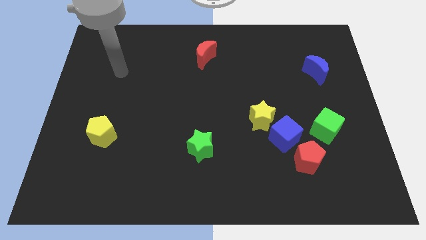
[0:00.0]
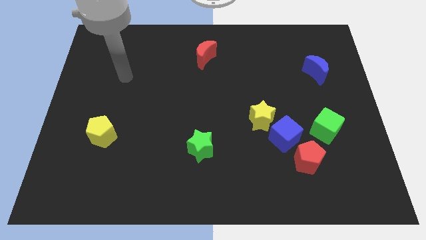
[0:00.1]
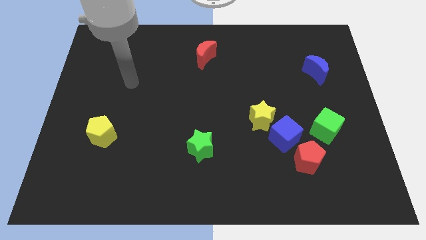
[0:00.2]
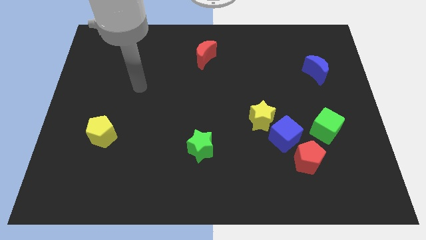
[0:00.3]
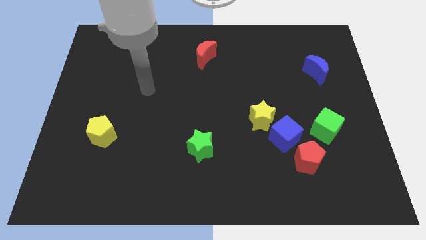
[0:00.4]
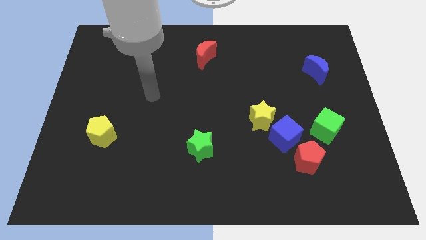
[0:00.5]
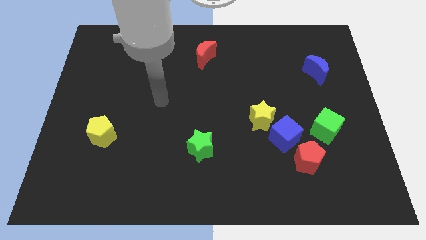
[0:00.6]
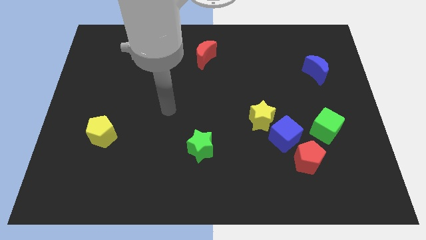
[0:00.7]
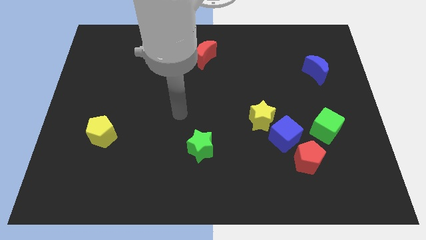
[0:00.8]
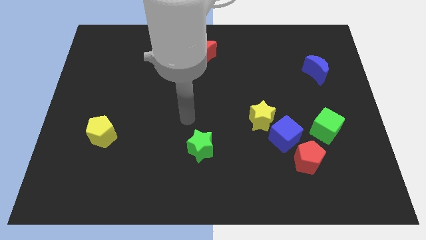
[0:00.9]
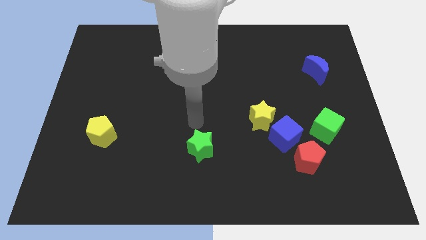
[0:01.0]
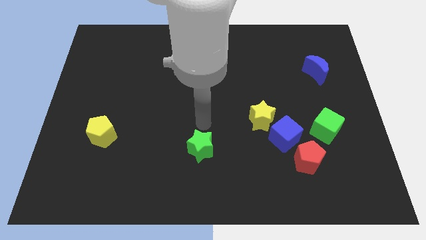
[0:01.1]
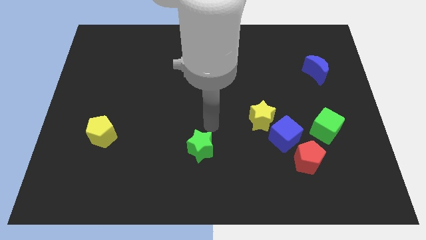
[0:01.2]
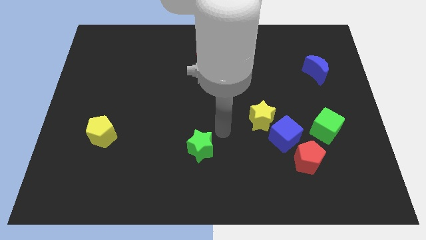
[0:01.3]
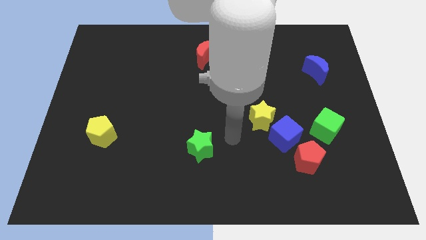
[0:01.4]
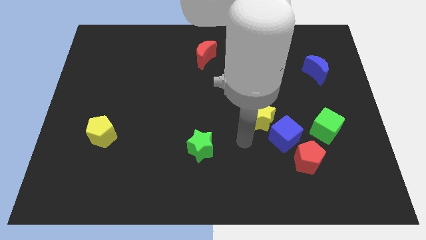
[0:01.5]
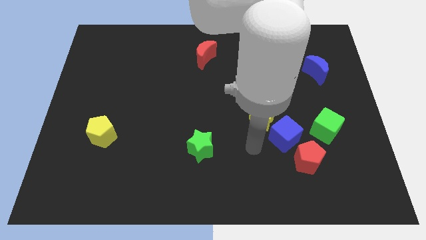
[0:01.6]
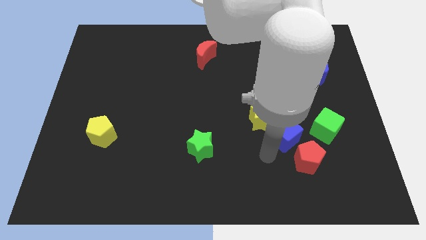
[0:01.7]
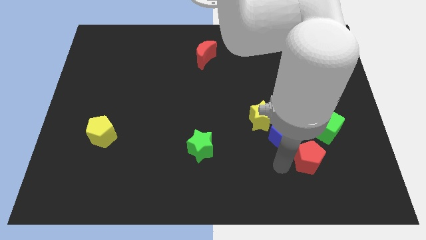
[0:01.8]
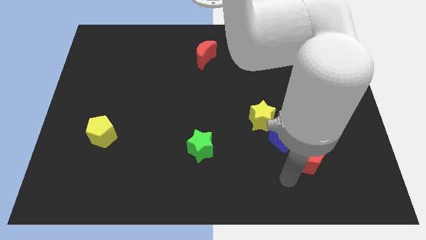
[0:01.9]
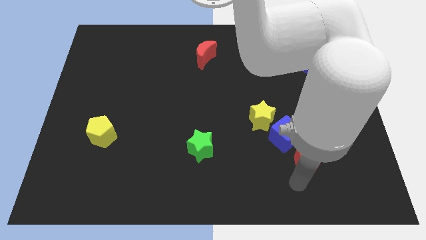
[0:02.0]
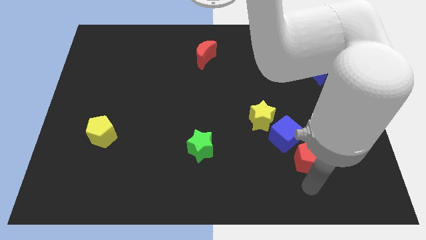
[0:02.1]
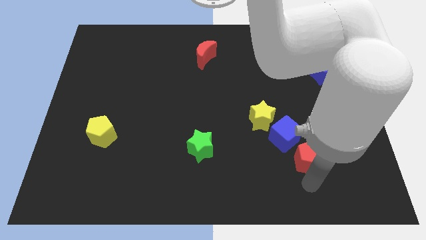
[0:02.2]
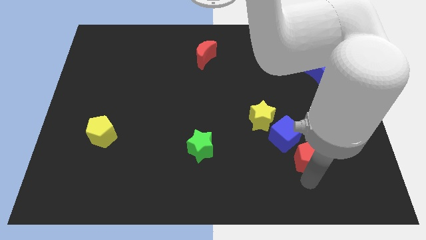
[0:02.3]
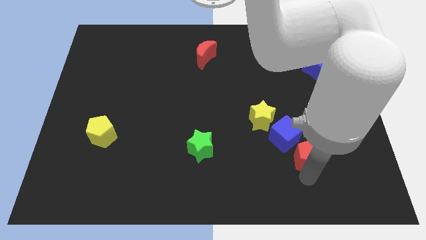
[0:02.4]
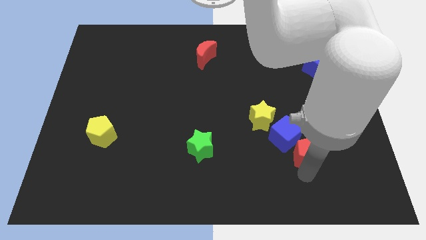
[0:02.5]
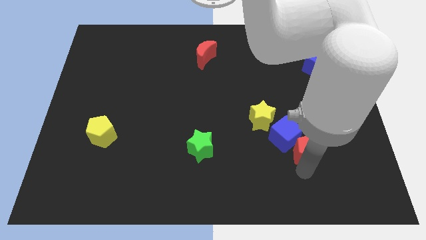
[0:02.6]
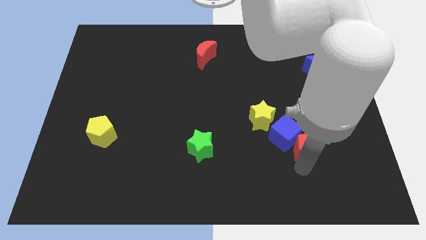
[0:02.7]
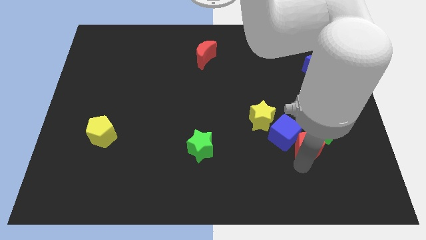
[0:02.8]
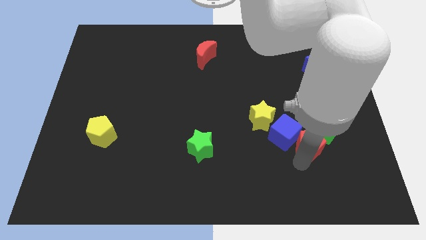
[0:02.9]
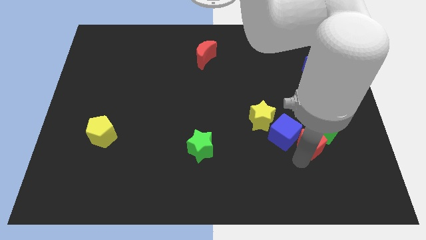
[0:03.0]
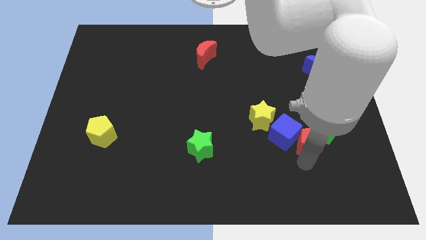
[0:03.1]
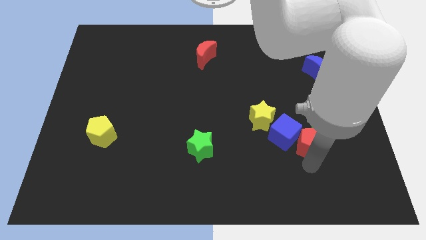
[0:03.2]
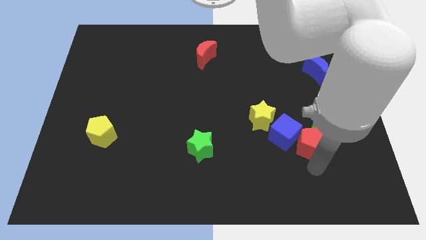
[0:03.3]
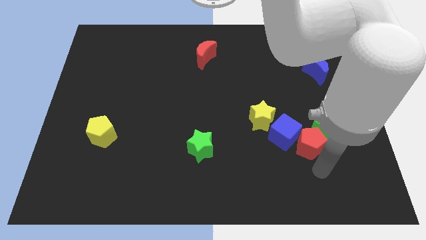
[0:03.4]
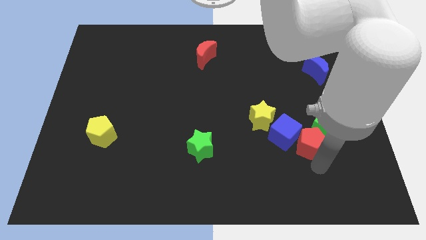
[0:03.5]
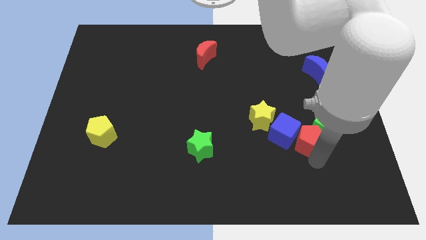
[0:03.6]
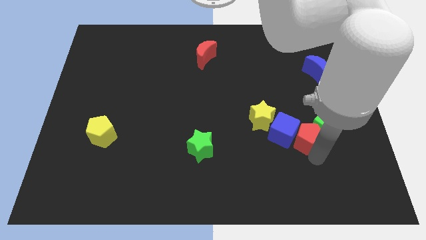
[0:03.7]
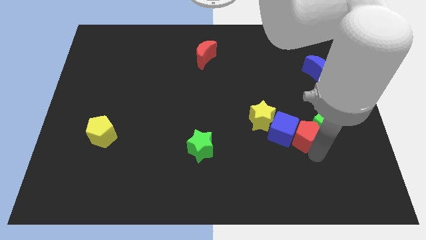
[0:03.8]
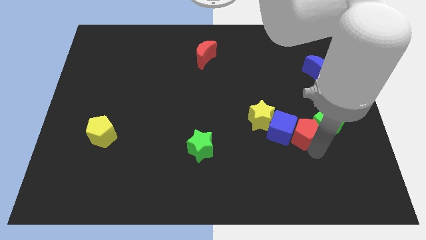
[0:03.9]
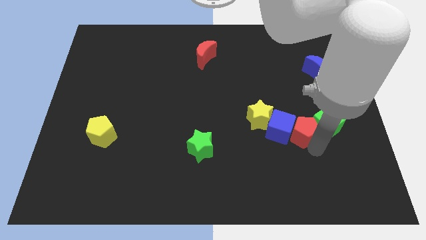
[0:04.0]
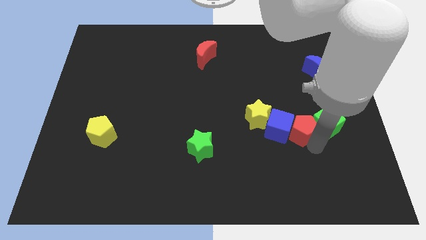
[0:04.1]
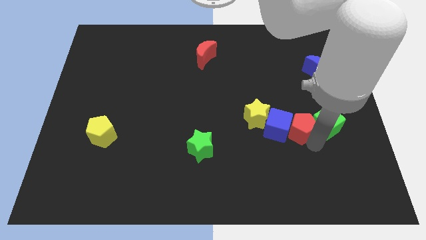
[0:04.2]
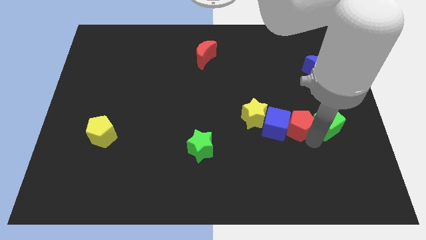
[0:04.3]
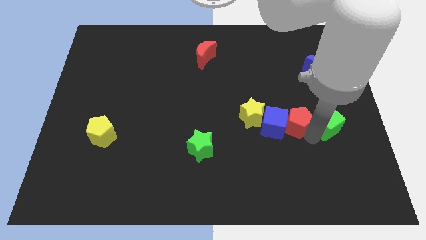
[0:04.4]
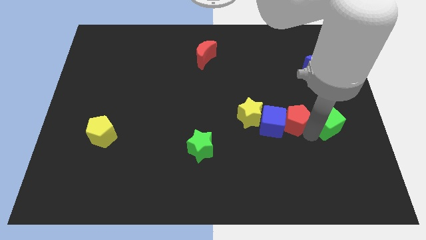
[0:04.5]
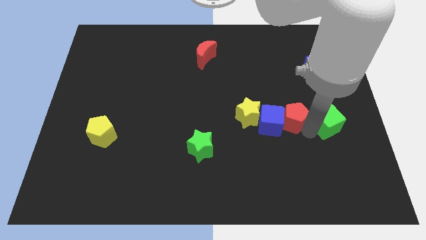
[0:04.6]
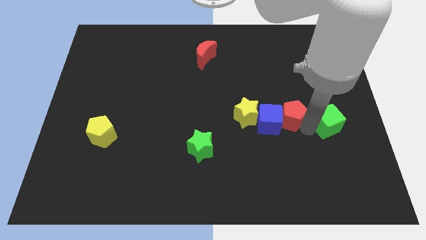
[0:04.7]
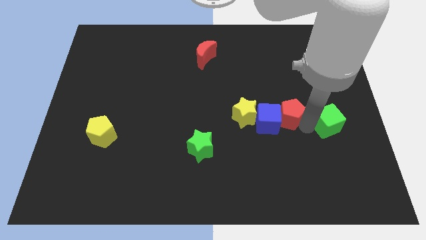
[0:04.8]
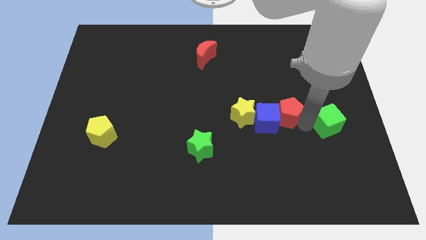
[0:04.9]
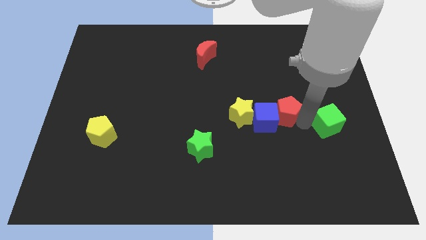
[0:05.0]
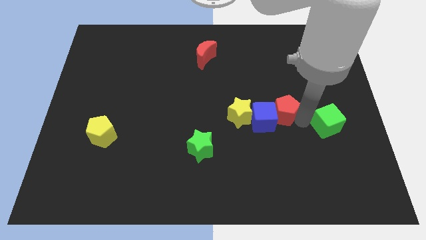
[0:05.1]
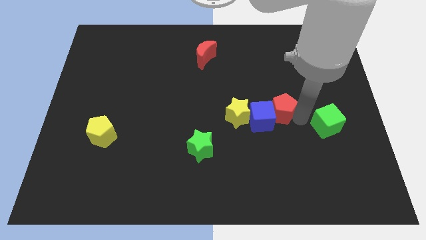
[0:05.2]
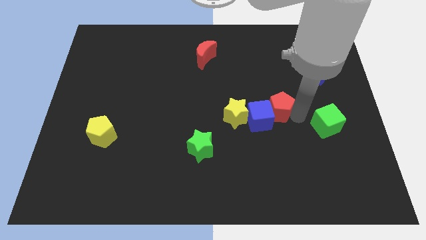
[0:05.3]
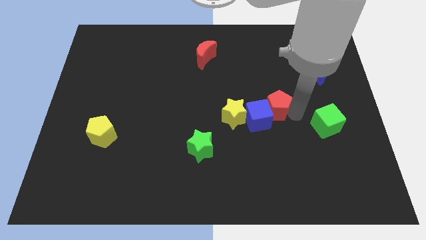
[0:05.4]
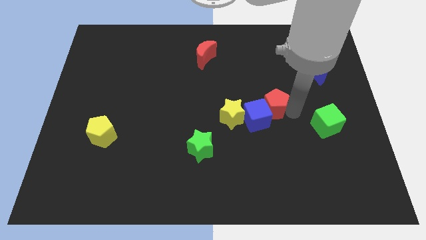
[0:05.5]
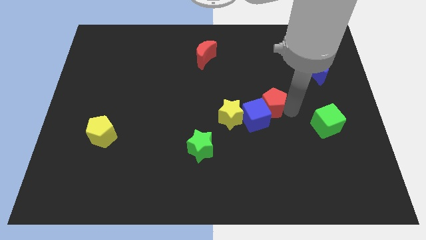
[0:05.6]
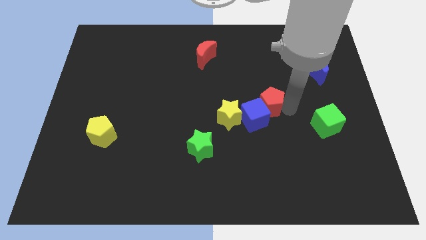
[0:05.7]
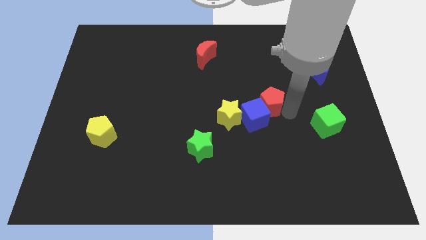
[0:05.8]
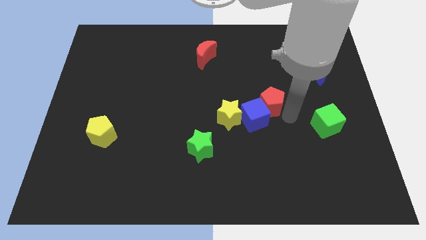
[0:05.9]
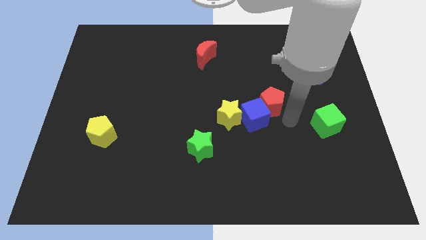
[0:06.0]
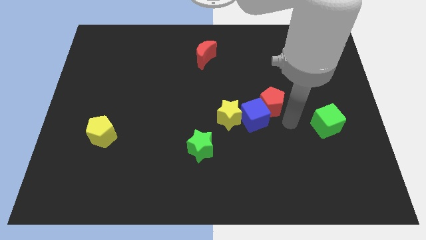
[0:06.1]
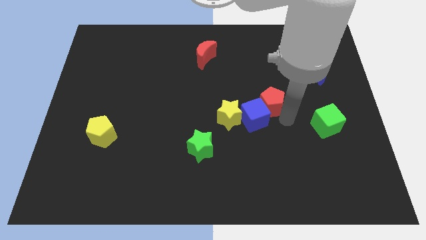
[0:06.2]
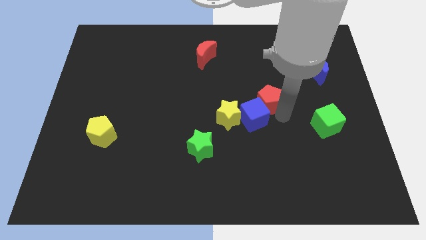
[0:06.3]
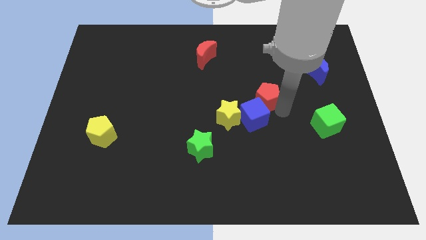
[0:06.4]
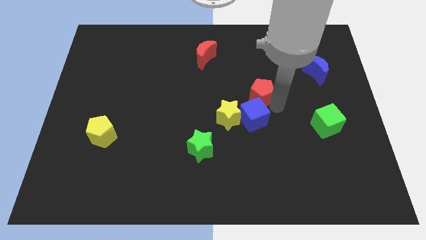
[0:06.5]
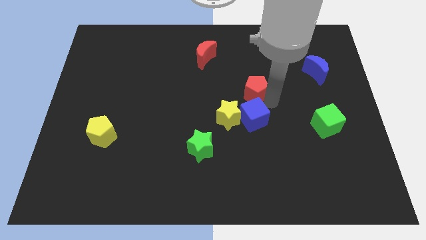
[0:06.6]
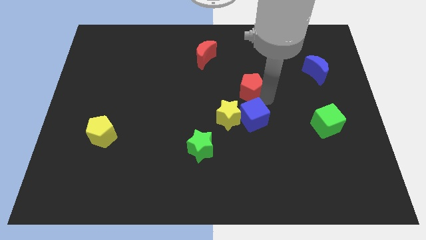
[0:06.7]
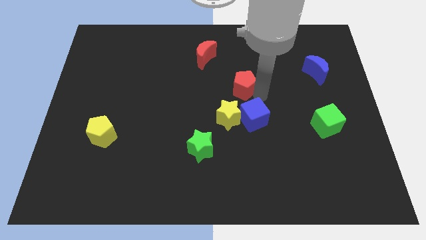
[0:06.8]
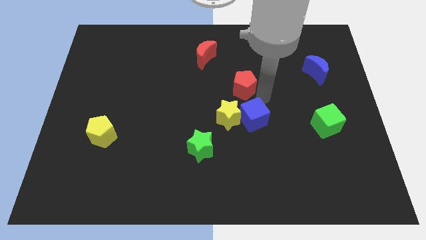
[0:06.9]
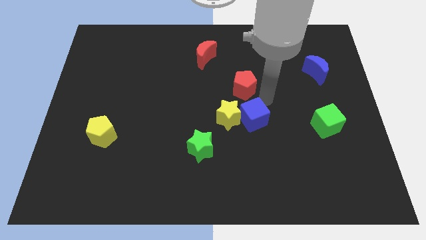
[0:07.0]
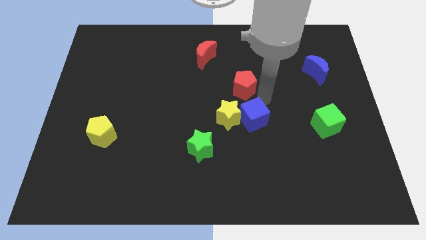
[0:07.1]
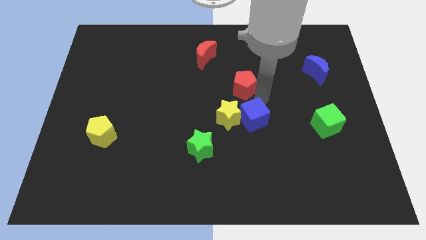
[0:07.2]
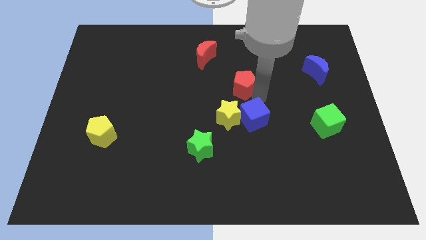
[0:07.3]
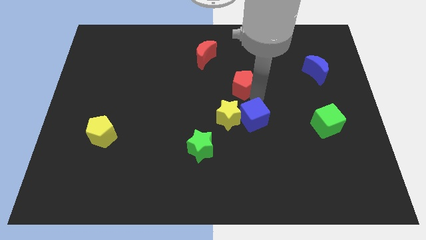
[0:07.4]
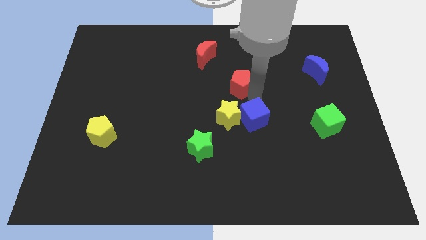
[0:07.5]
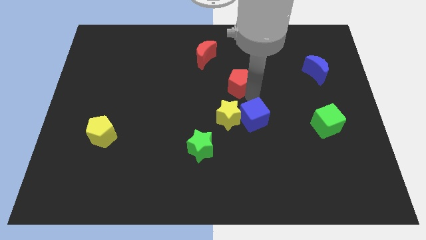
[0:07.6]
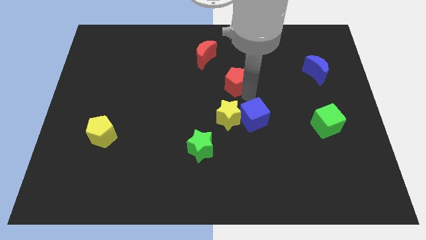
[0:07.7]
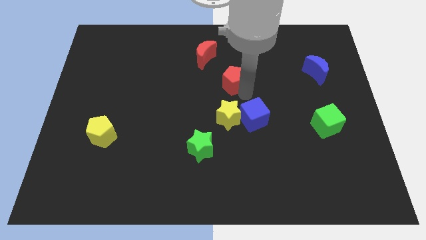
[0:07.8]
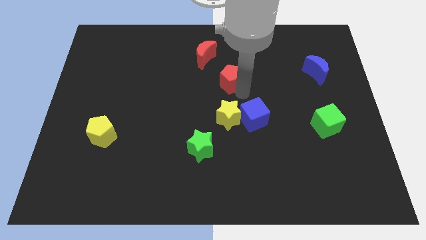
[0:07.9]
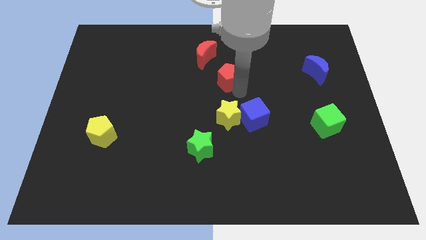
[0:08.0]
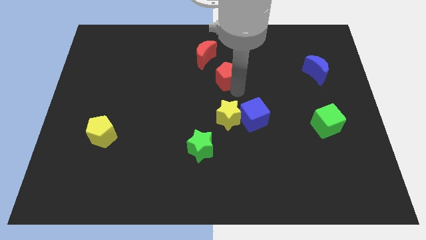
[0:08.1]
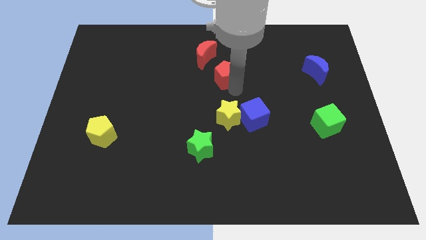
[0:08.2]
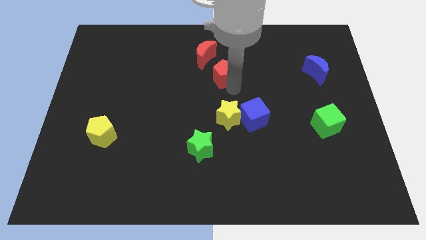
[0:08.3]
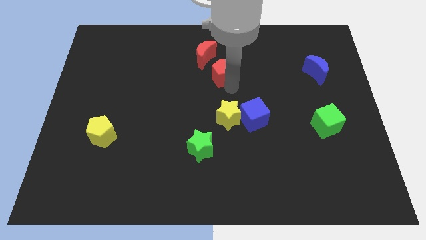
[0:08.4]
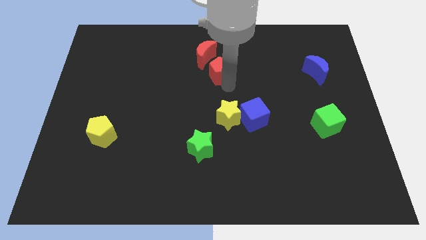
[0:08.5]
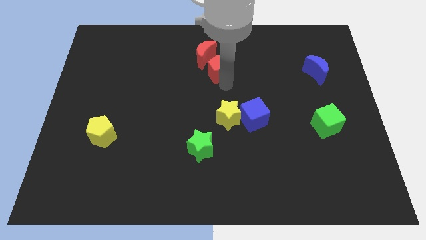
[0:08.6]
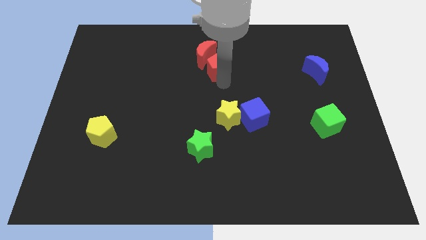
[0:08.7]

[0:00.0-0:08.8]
push the red pentagon to the red moon
